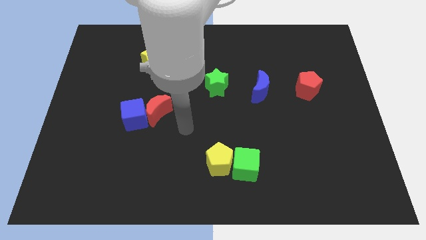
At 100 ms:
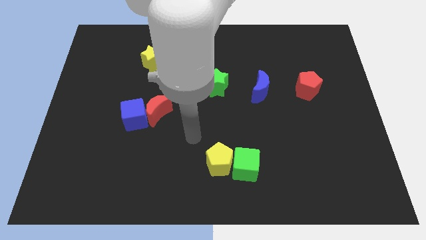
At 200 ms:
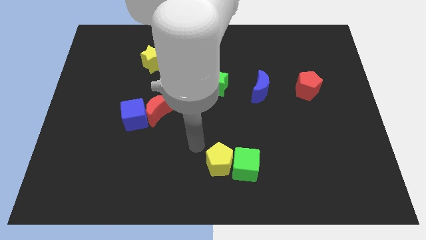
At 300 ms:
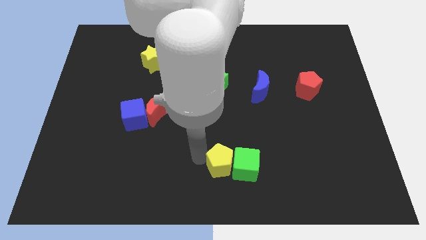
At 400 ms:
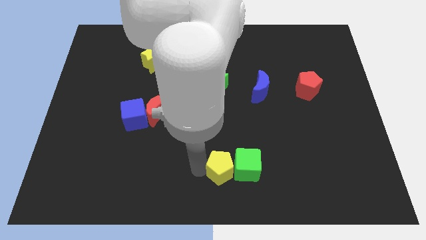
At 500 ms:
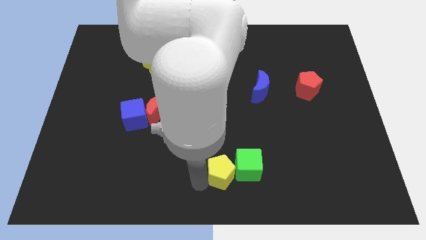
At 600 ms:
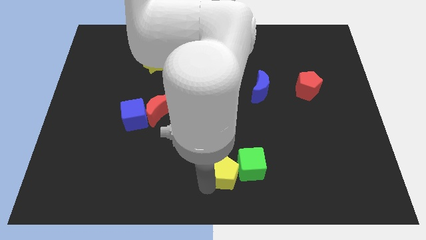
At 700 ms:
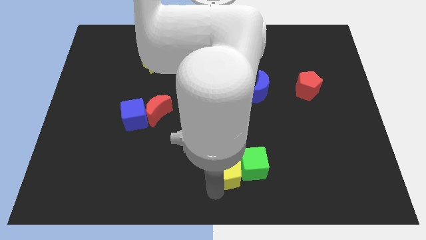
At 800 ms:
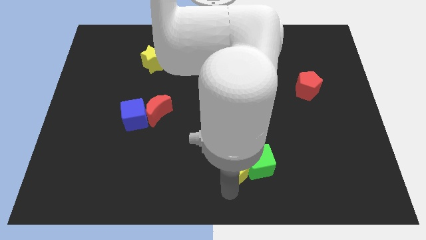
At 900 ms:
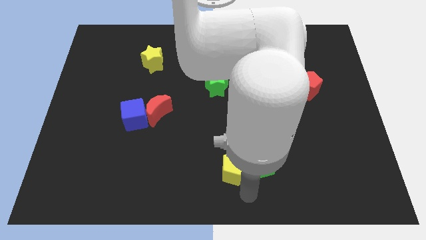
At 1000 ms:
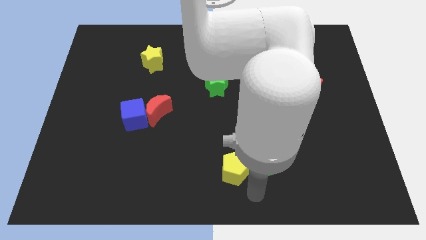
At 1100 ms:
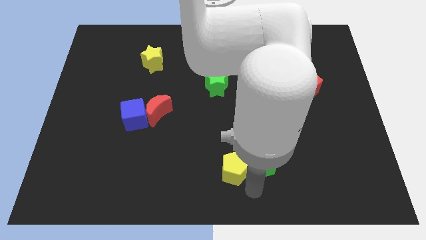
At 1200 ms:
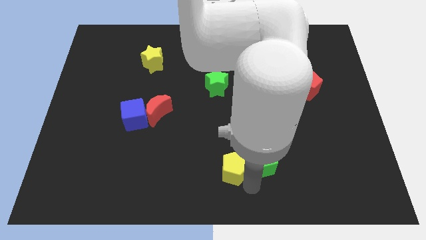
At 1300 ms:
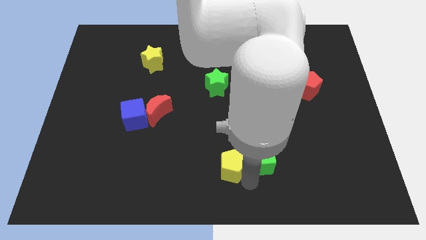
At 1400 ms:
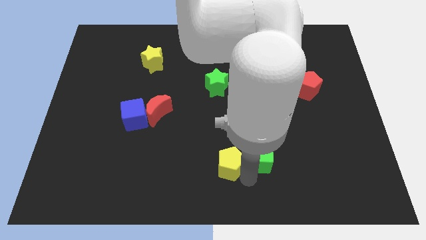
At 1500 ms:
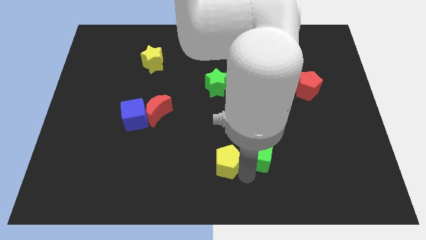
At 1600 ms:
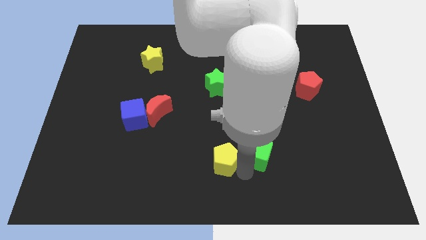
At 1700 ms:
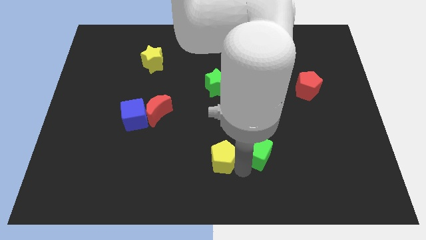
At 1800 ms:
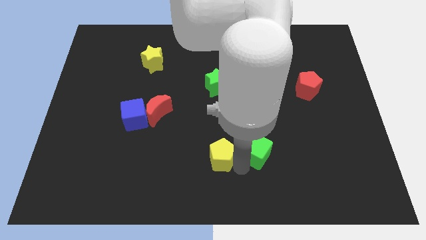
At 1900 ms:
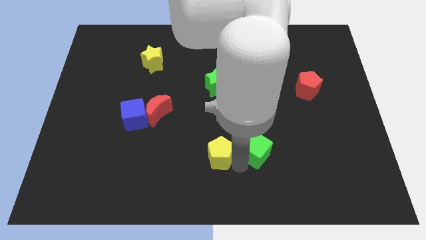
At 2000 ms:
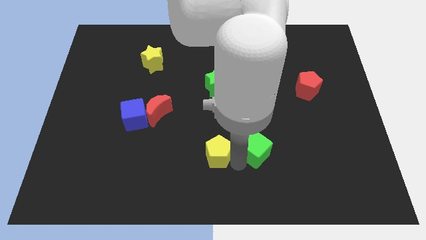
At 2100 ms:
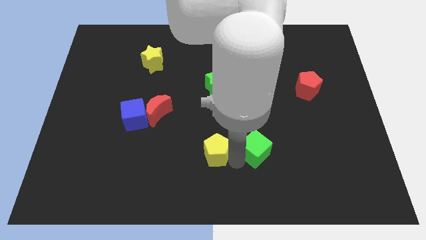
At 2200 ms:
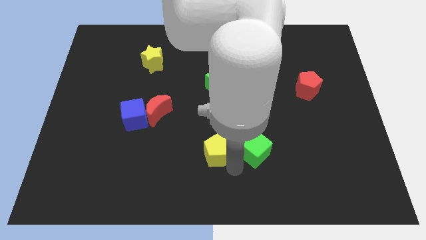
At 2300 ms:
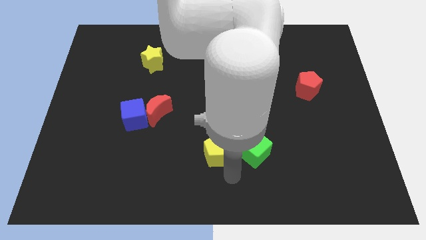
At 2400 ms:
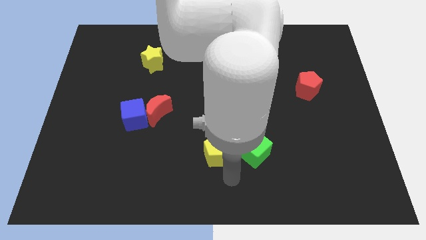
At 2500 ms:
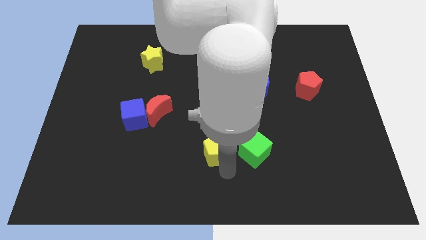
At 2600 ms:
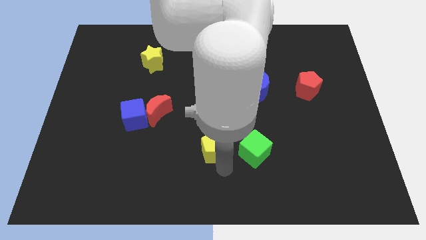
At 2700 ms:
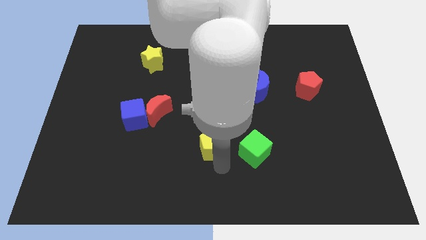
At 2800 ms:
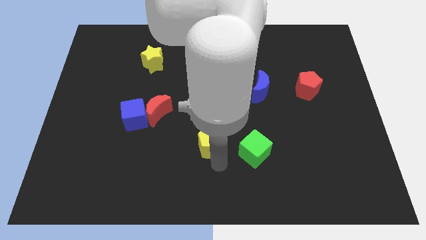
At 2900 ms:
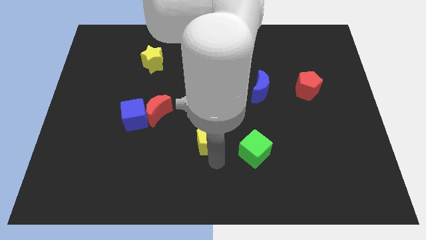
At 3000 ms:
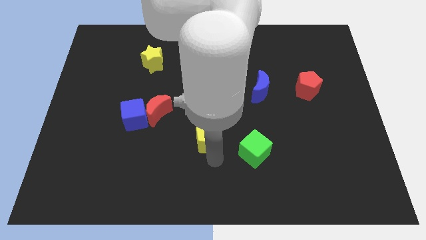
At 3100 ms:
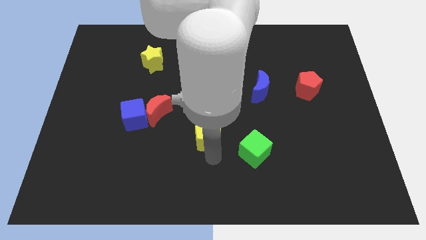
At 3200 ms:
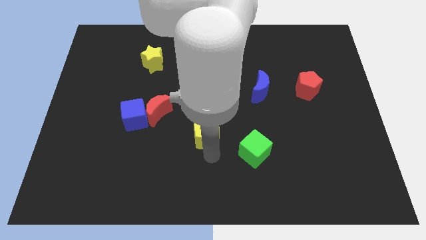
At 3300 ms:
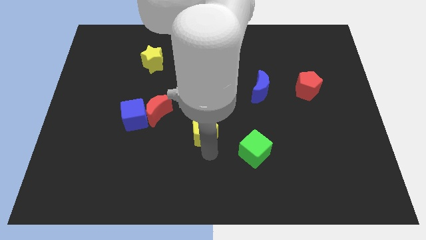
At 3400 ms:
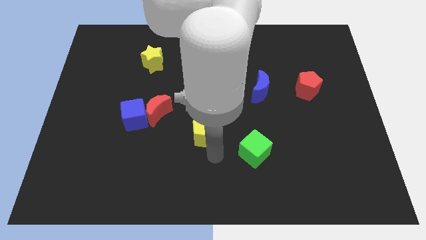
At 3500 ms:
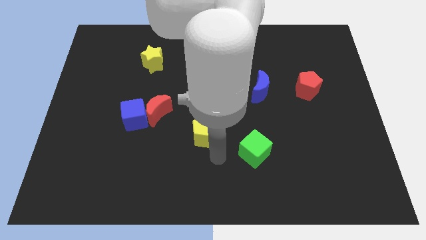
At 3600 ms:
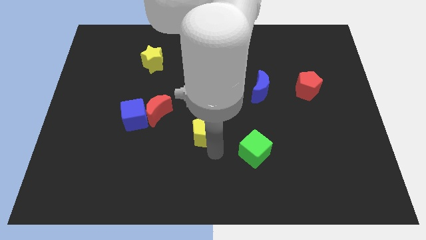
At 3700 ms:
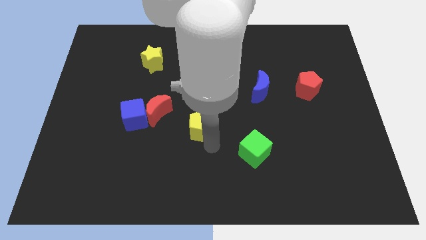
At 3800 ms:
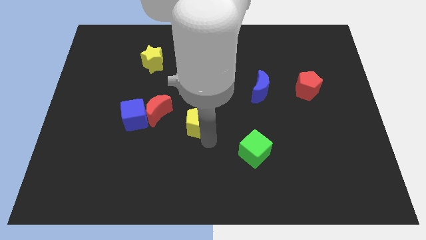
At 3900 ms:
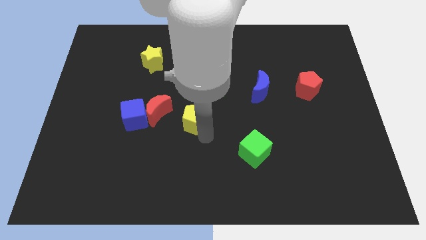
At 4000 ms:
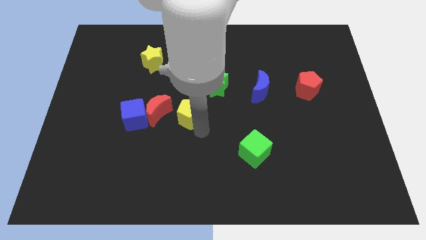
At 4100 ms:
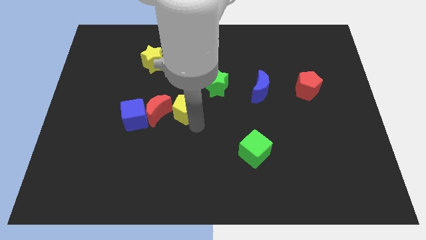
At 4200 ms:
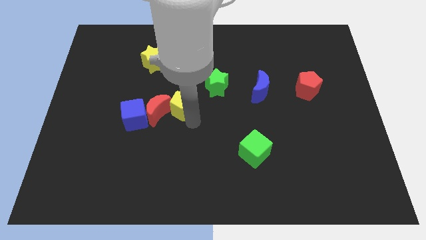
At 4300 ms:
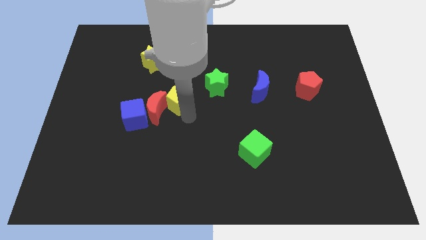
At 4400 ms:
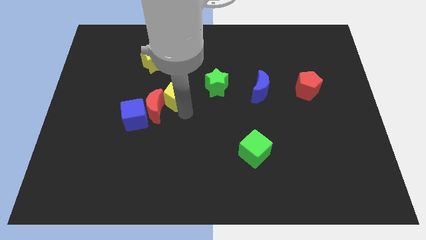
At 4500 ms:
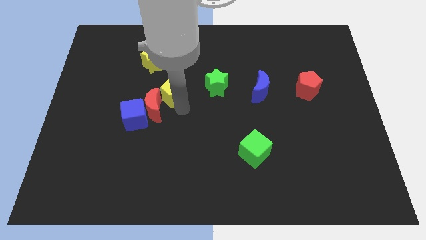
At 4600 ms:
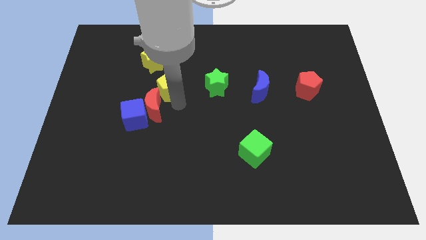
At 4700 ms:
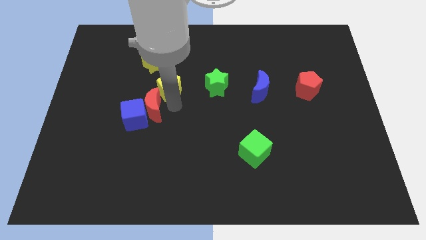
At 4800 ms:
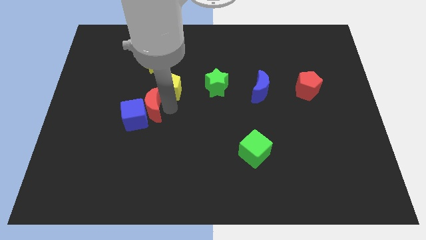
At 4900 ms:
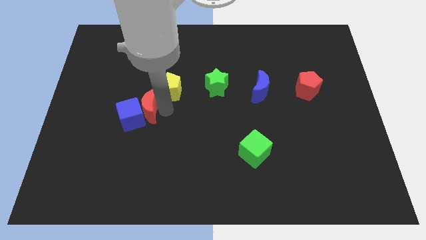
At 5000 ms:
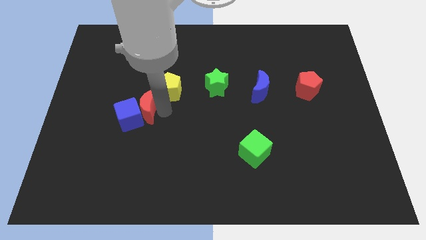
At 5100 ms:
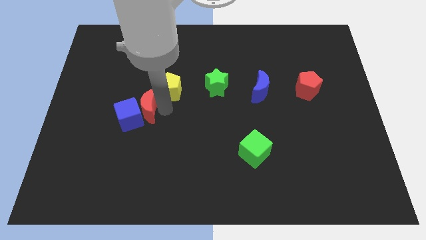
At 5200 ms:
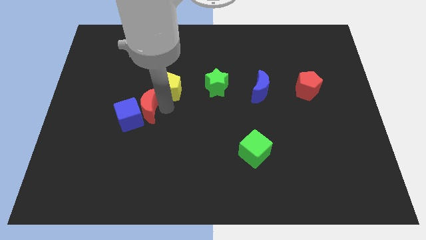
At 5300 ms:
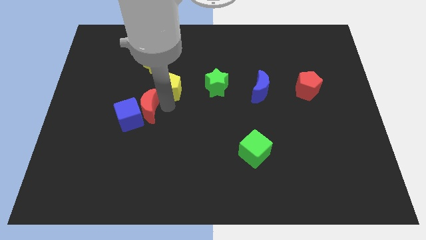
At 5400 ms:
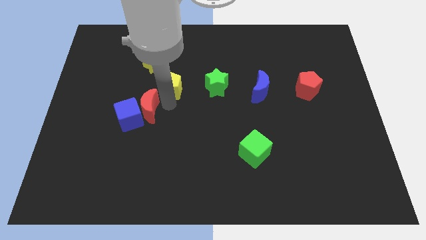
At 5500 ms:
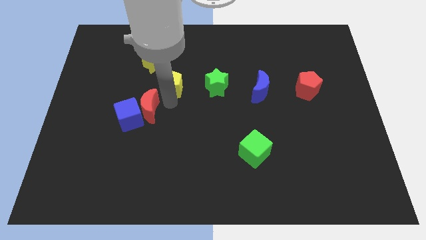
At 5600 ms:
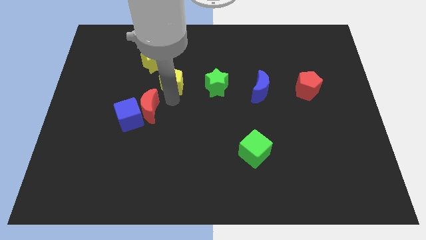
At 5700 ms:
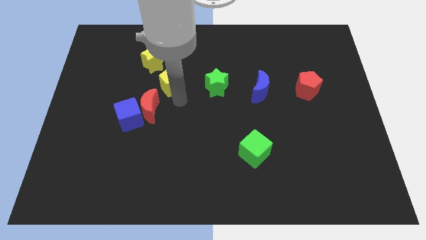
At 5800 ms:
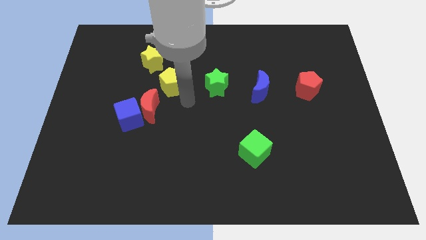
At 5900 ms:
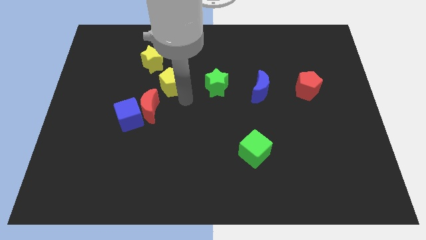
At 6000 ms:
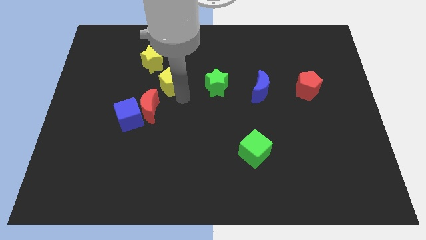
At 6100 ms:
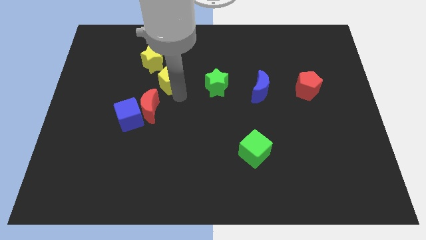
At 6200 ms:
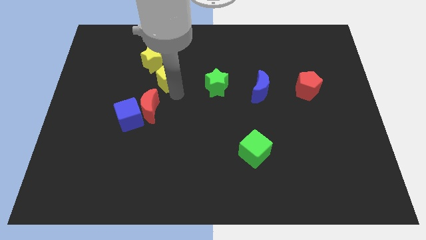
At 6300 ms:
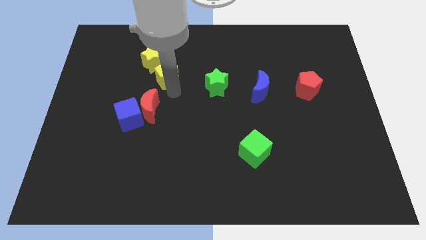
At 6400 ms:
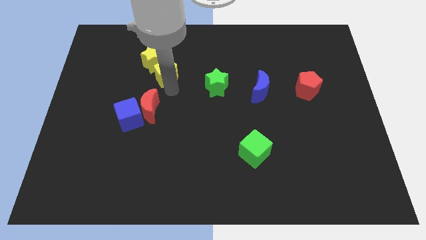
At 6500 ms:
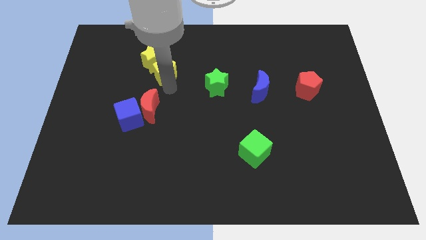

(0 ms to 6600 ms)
slide the yellow pentagon next to the yellow star

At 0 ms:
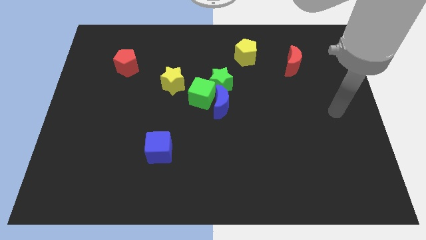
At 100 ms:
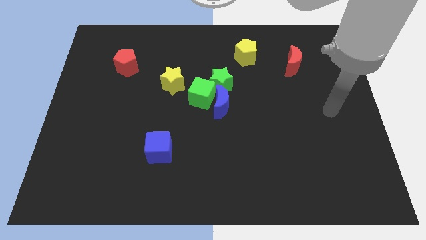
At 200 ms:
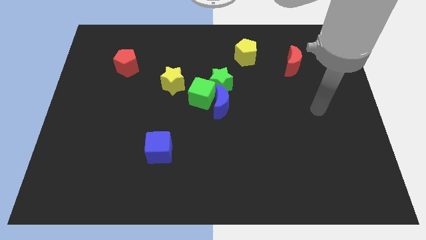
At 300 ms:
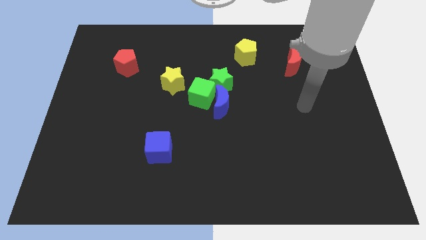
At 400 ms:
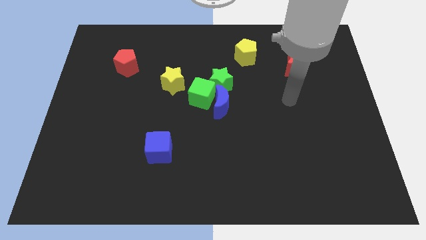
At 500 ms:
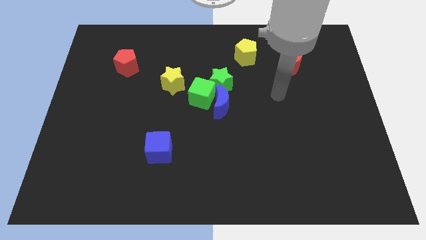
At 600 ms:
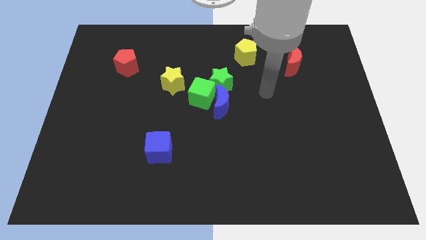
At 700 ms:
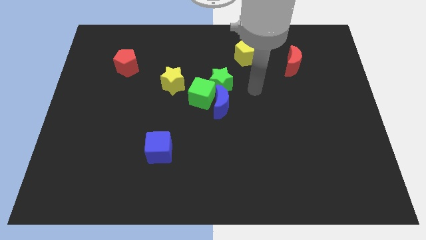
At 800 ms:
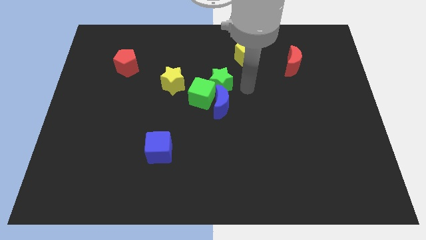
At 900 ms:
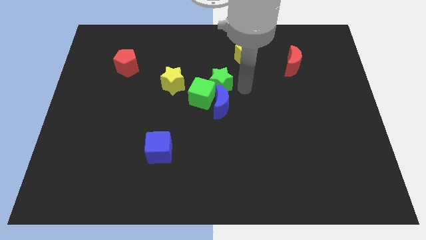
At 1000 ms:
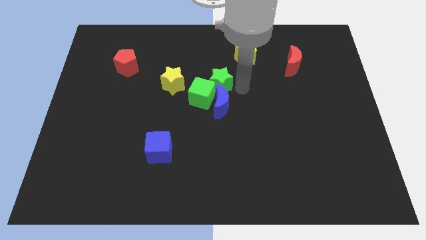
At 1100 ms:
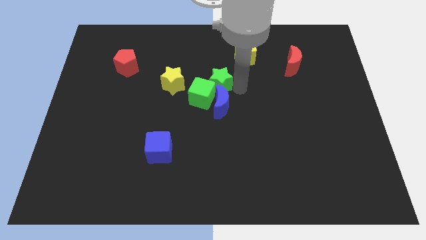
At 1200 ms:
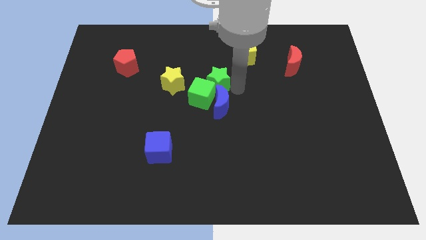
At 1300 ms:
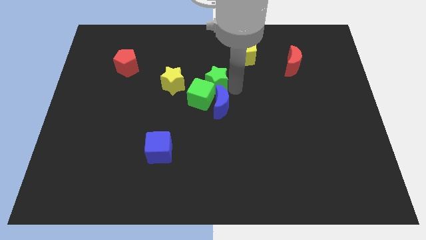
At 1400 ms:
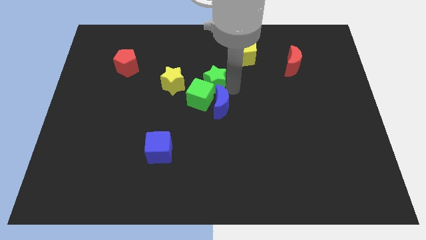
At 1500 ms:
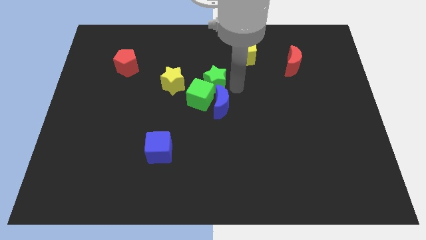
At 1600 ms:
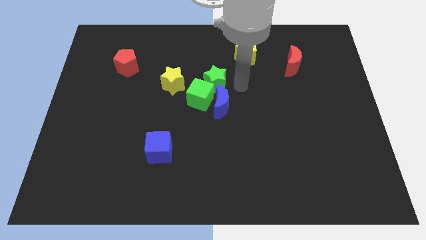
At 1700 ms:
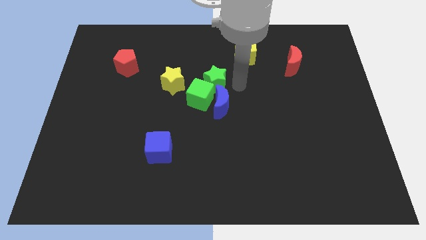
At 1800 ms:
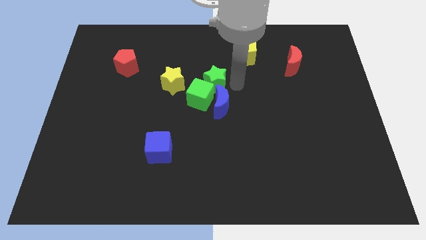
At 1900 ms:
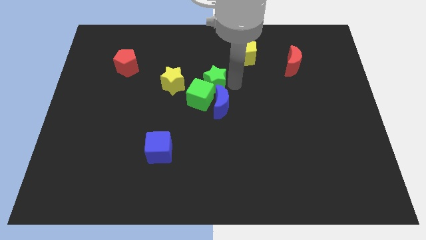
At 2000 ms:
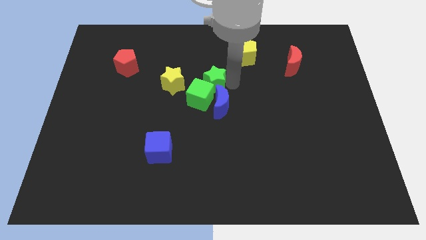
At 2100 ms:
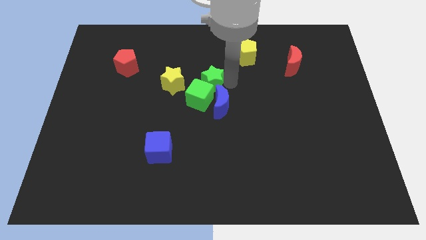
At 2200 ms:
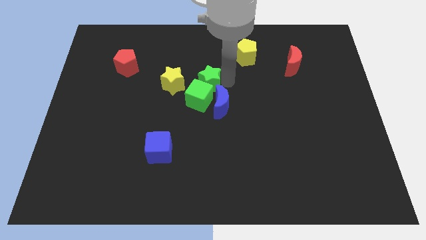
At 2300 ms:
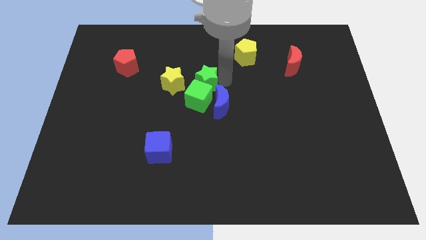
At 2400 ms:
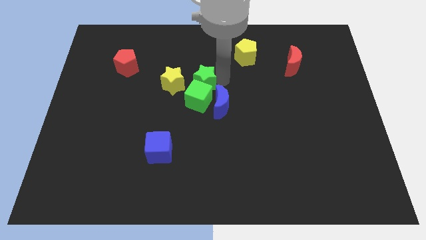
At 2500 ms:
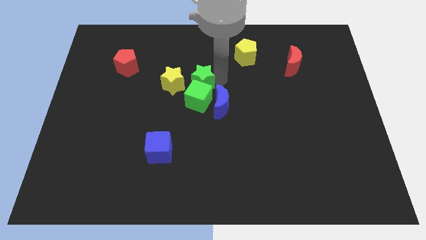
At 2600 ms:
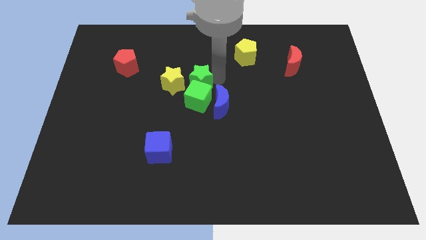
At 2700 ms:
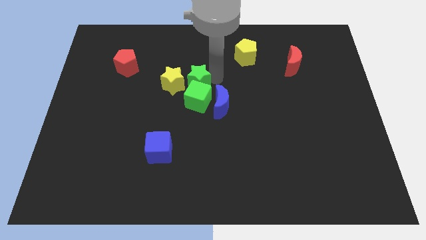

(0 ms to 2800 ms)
slide the green star next to the yellow star
